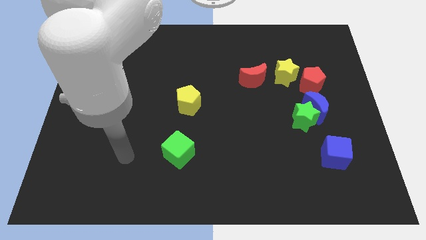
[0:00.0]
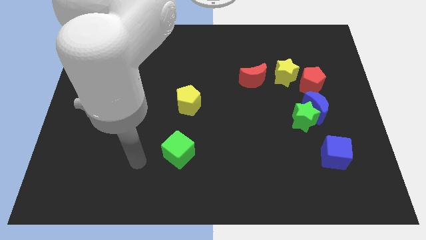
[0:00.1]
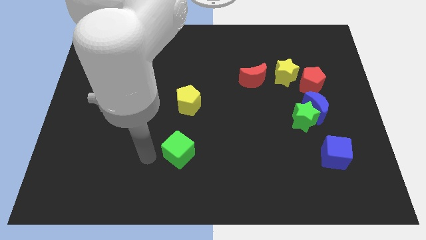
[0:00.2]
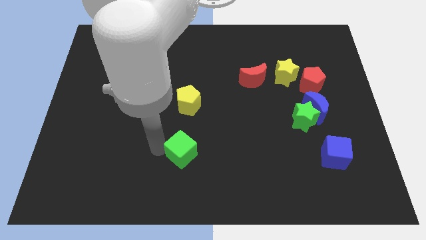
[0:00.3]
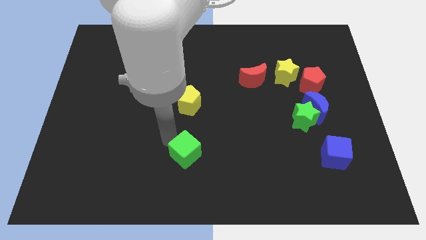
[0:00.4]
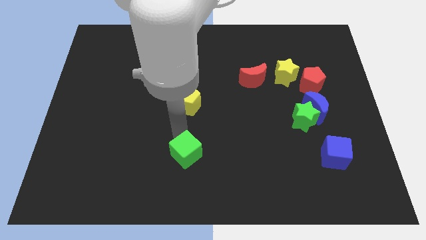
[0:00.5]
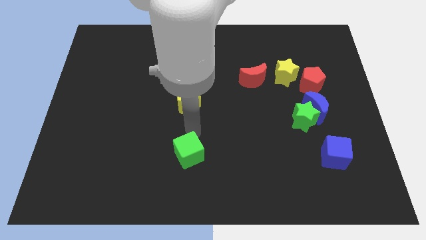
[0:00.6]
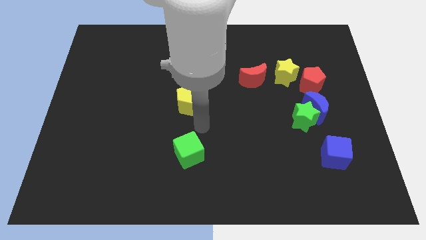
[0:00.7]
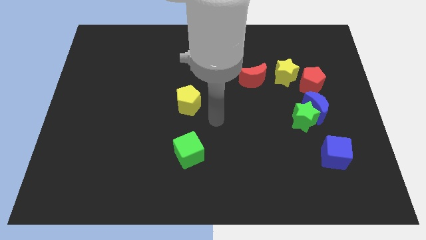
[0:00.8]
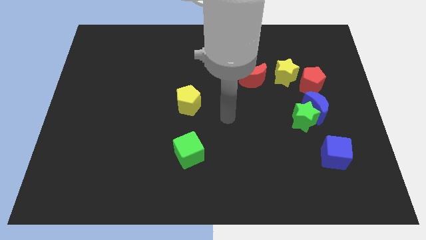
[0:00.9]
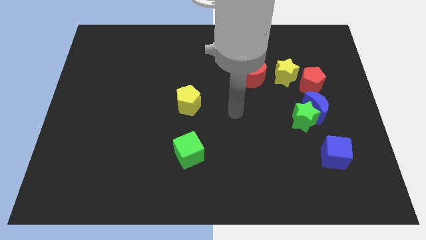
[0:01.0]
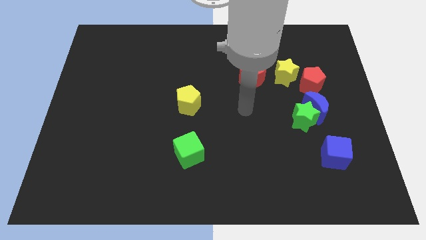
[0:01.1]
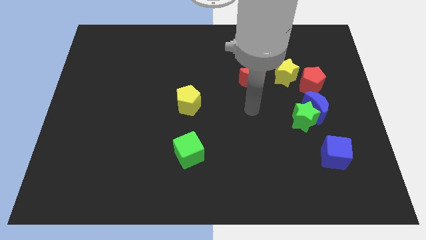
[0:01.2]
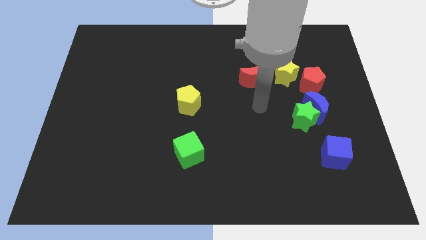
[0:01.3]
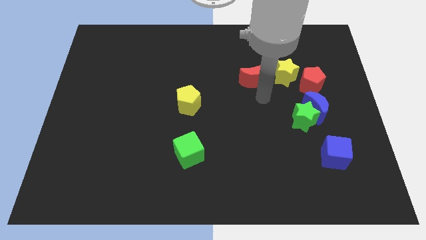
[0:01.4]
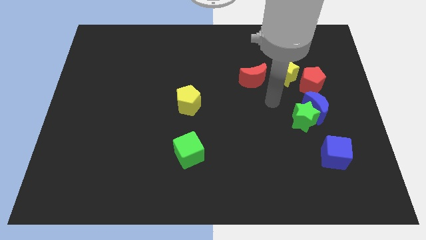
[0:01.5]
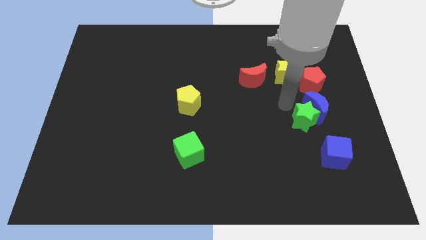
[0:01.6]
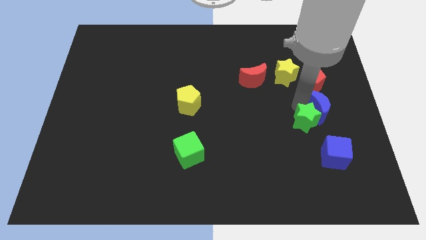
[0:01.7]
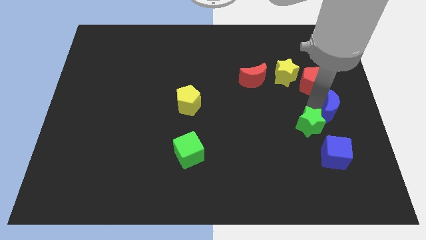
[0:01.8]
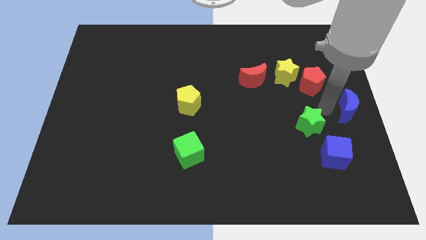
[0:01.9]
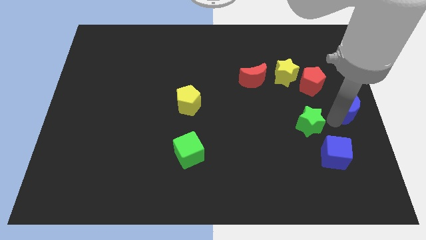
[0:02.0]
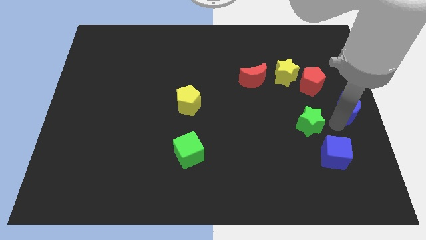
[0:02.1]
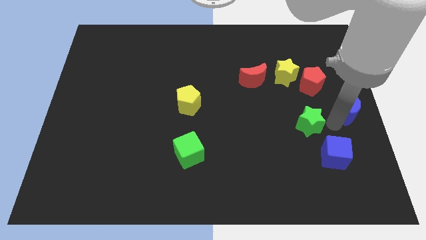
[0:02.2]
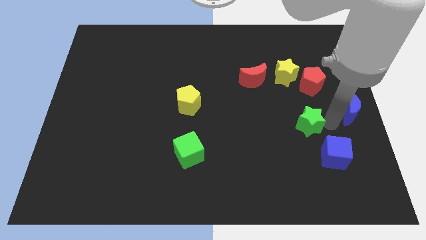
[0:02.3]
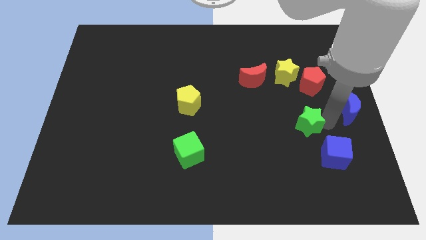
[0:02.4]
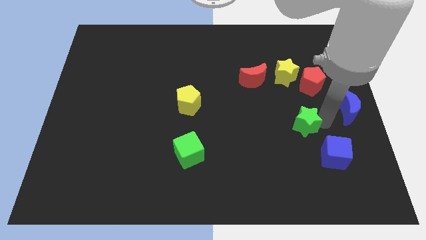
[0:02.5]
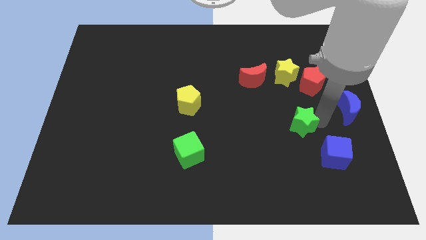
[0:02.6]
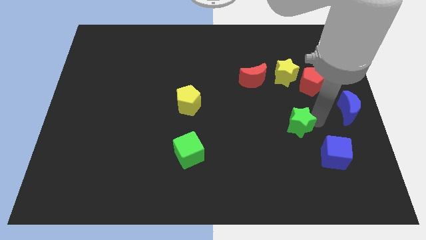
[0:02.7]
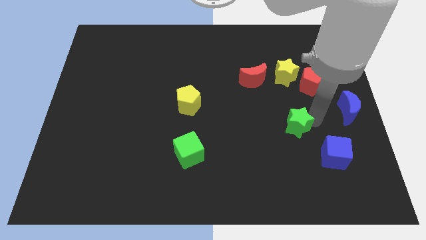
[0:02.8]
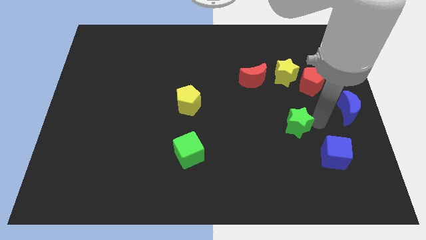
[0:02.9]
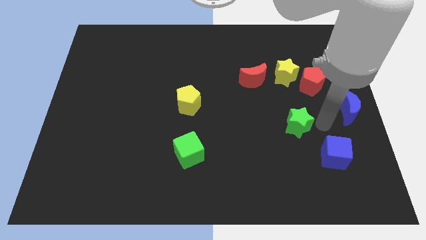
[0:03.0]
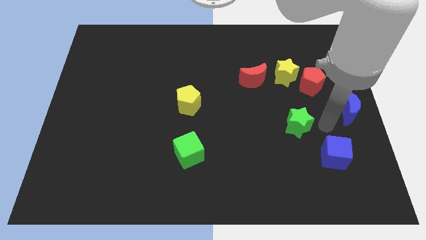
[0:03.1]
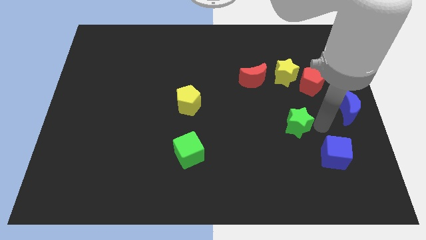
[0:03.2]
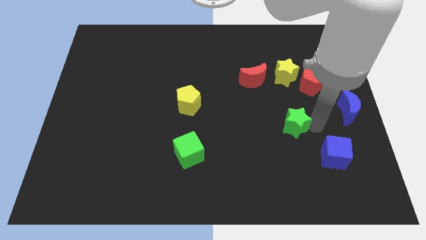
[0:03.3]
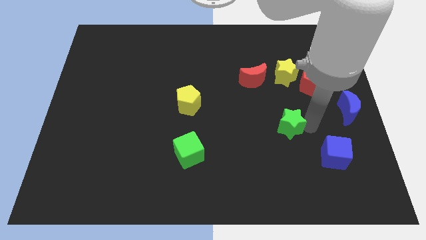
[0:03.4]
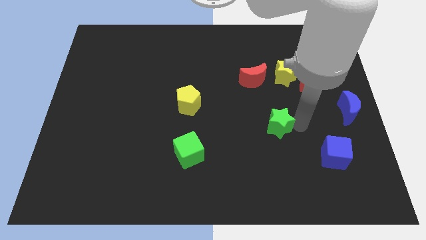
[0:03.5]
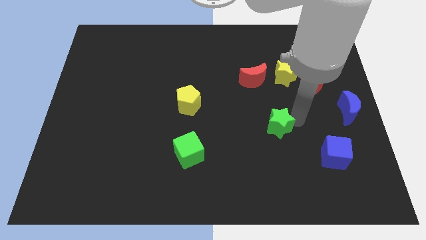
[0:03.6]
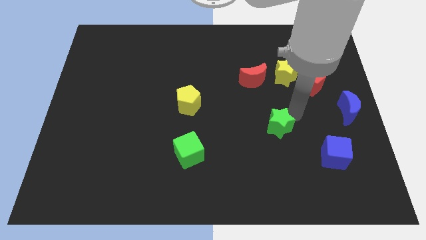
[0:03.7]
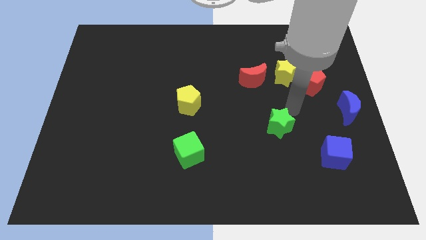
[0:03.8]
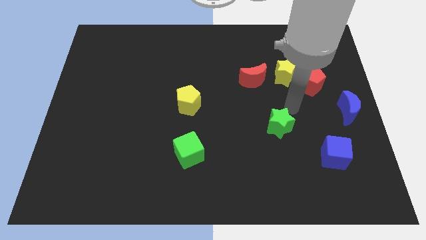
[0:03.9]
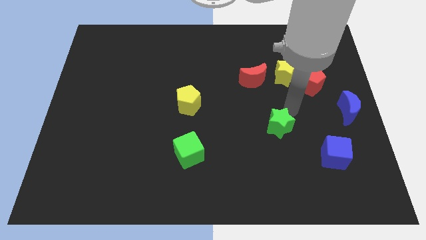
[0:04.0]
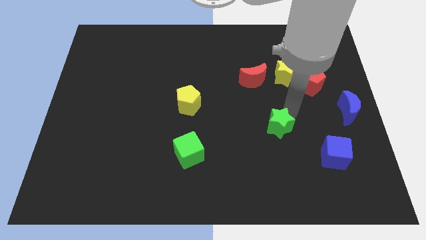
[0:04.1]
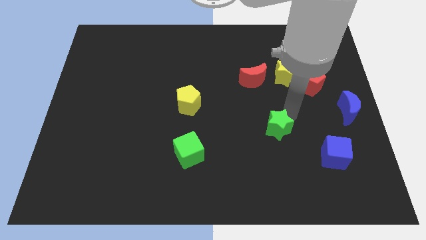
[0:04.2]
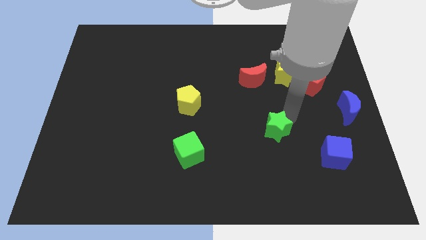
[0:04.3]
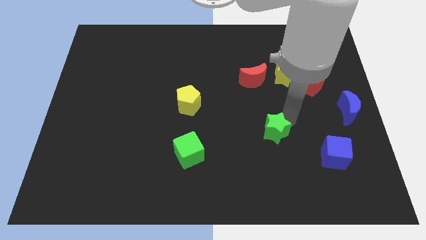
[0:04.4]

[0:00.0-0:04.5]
move the green star down and left diagonally a little bit

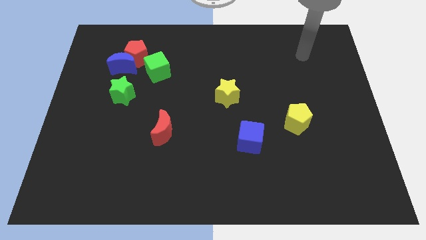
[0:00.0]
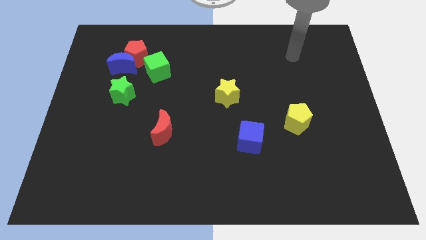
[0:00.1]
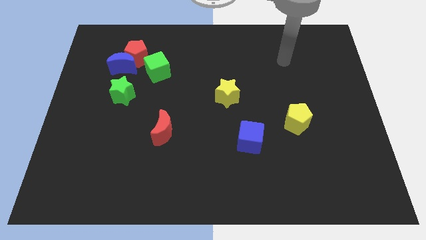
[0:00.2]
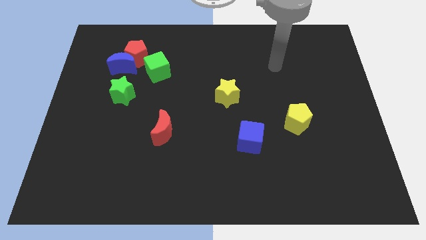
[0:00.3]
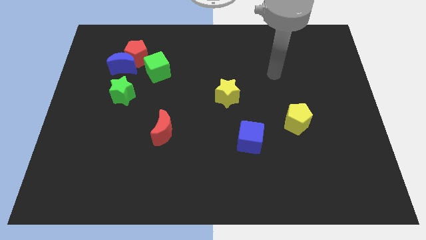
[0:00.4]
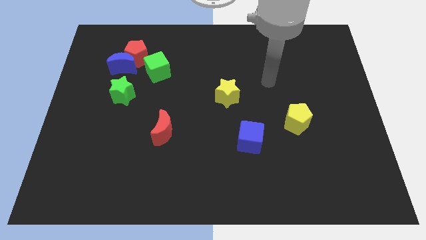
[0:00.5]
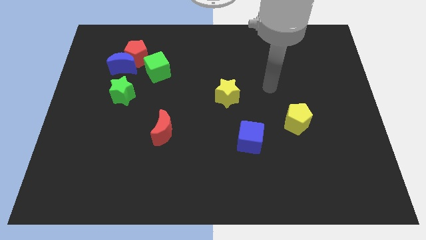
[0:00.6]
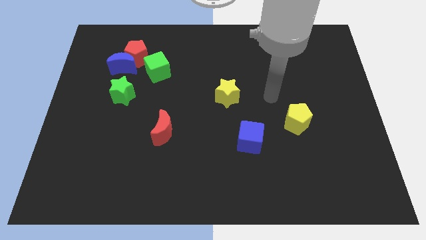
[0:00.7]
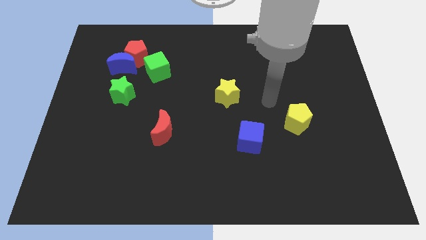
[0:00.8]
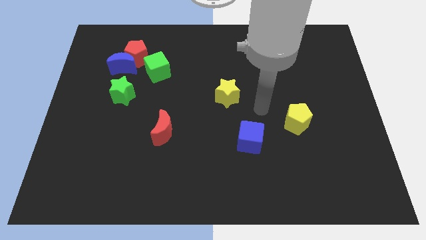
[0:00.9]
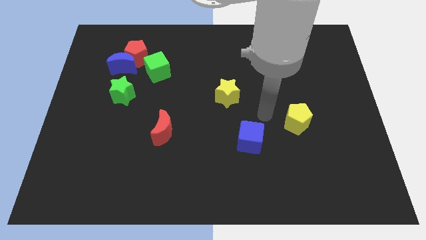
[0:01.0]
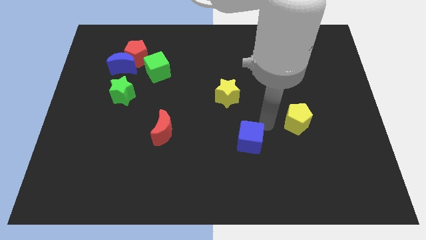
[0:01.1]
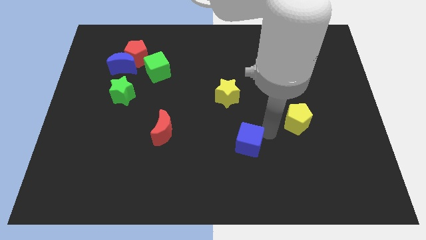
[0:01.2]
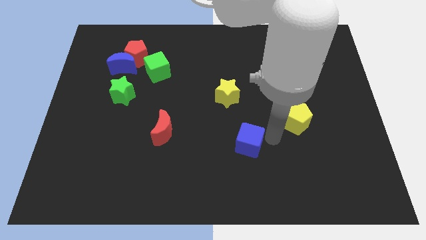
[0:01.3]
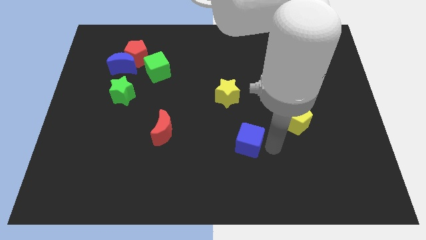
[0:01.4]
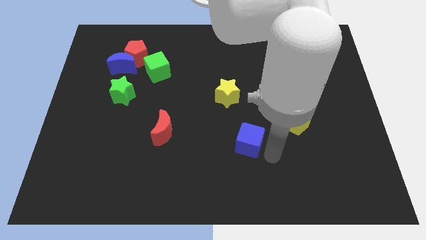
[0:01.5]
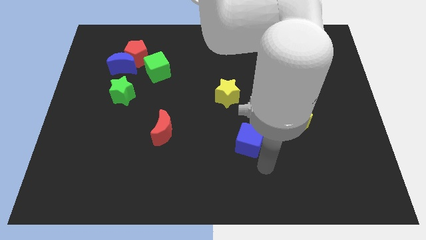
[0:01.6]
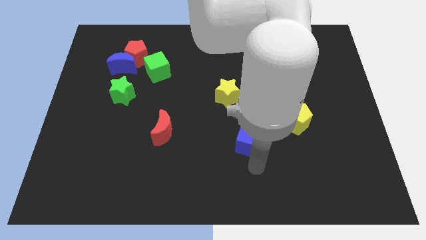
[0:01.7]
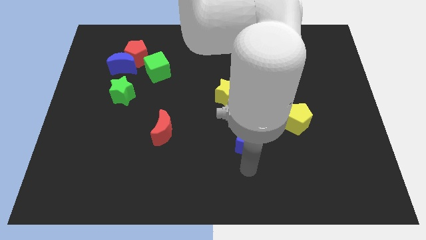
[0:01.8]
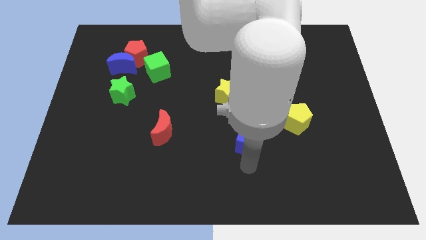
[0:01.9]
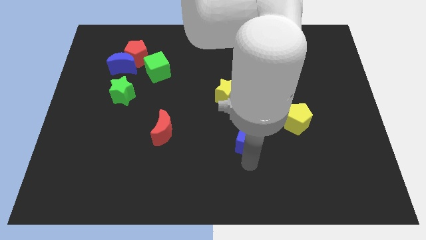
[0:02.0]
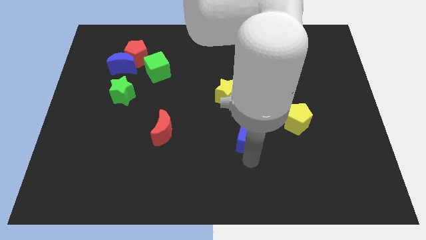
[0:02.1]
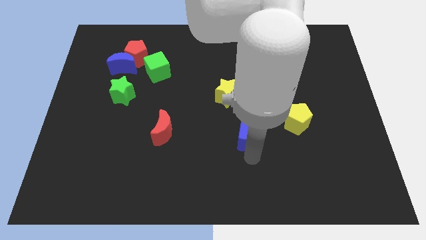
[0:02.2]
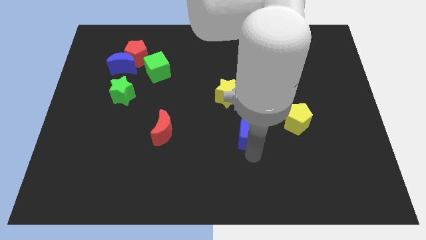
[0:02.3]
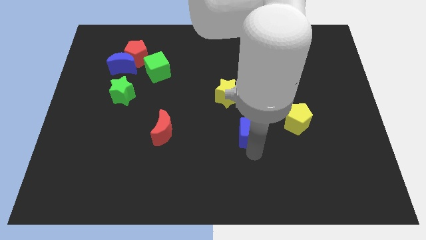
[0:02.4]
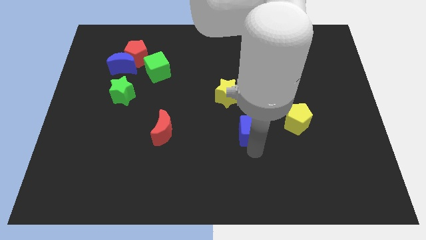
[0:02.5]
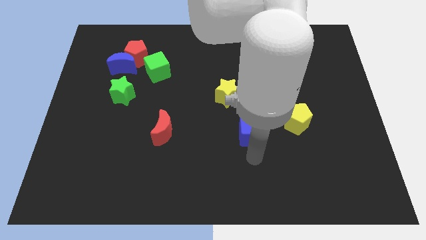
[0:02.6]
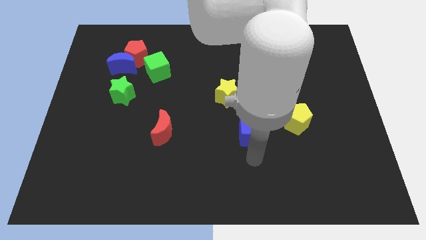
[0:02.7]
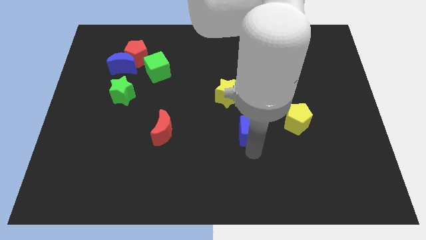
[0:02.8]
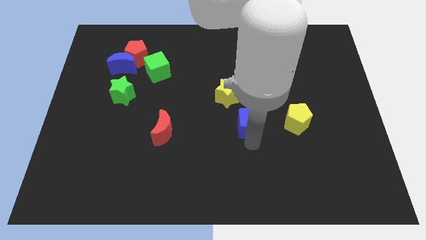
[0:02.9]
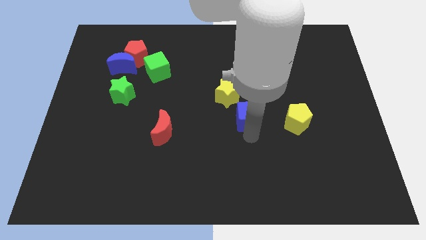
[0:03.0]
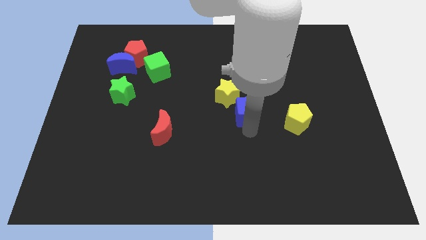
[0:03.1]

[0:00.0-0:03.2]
slide the blue cube a bit up

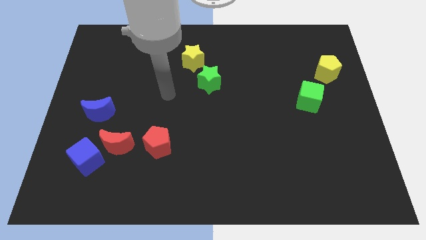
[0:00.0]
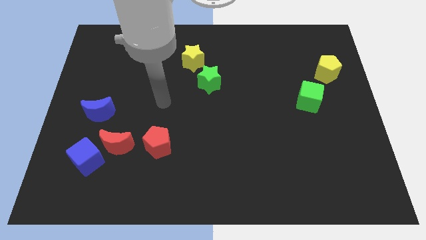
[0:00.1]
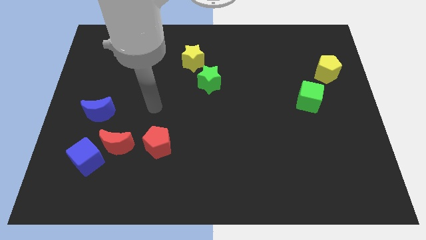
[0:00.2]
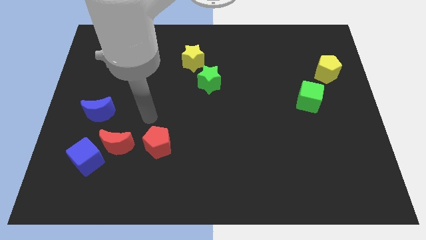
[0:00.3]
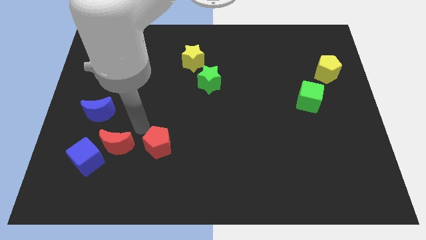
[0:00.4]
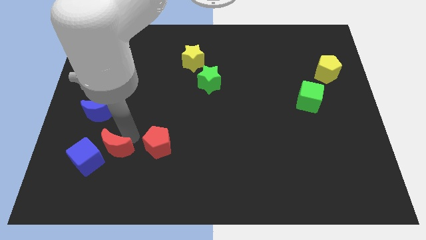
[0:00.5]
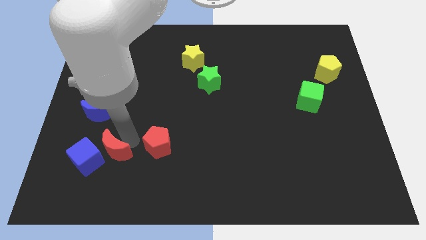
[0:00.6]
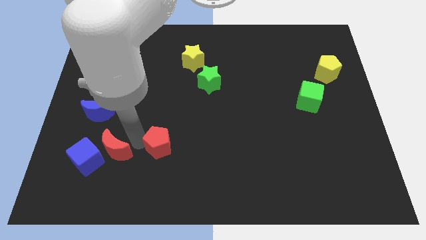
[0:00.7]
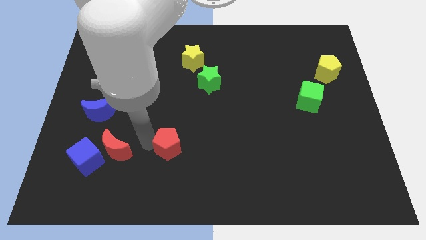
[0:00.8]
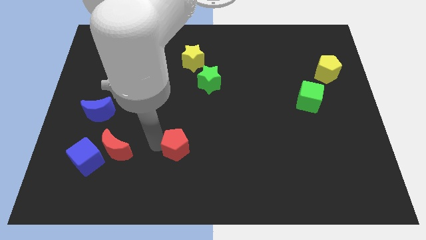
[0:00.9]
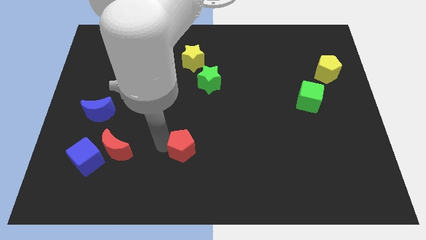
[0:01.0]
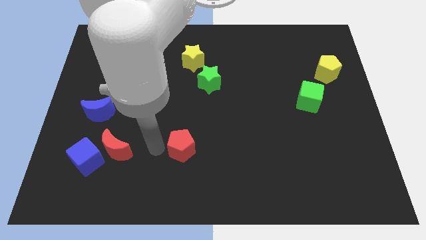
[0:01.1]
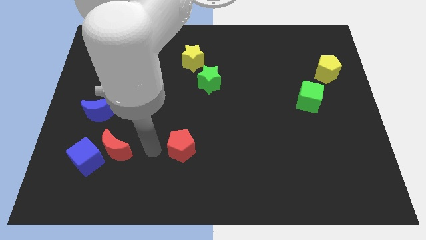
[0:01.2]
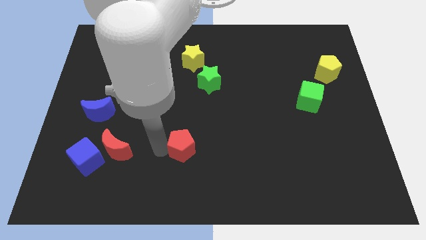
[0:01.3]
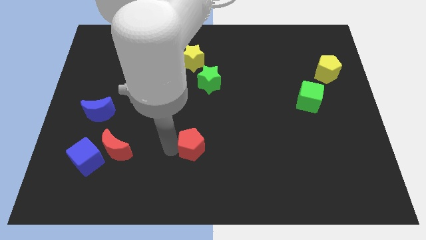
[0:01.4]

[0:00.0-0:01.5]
slide the red pentagon slightly right
